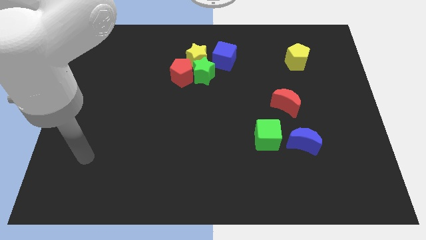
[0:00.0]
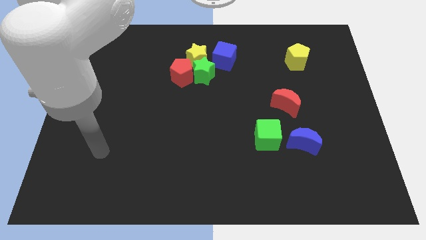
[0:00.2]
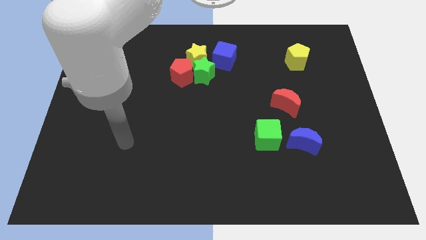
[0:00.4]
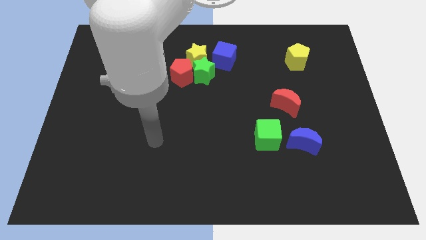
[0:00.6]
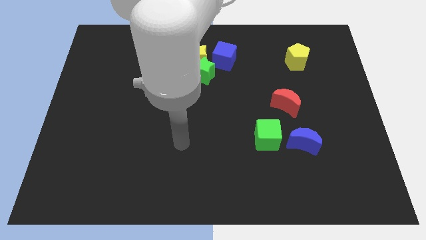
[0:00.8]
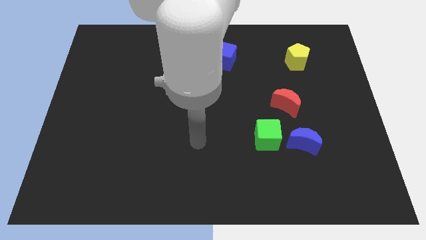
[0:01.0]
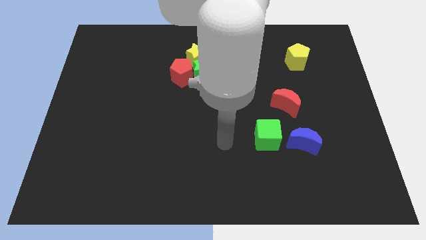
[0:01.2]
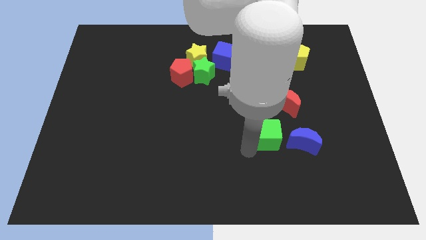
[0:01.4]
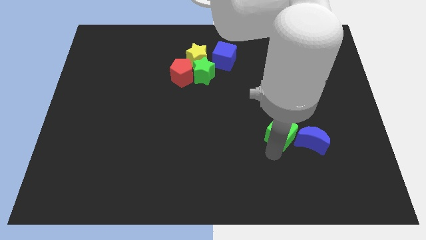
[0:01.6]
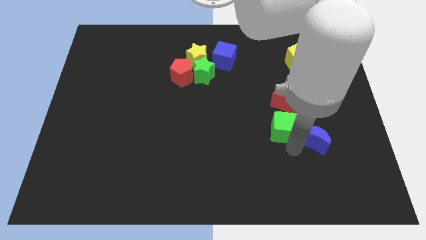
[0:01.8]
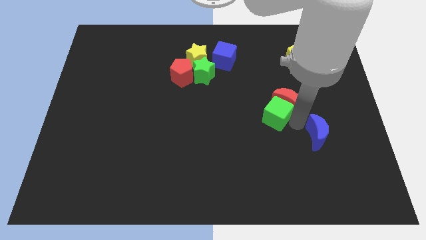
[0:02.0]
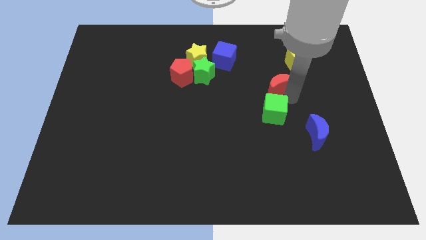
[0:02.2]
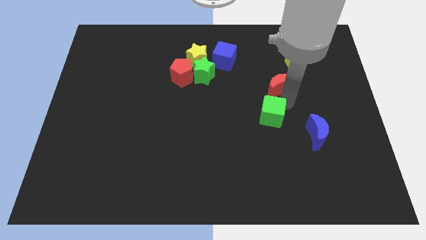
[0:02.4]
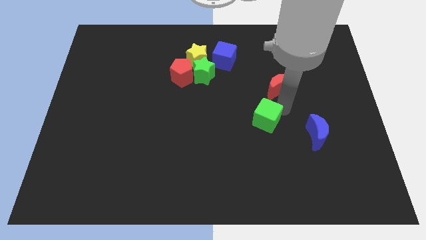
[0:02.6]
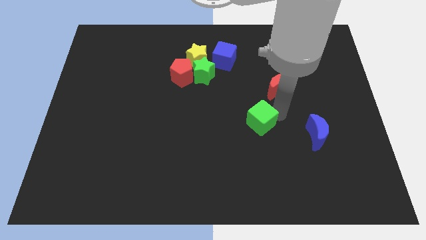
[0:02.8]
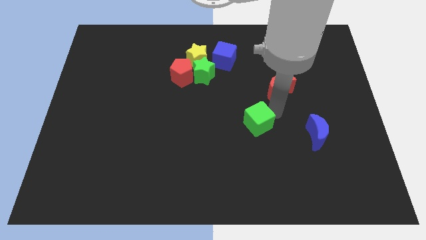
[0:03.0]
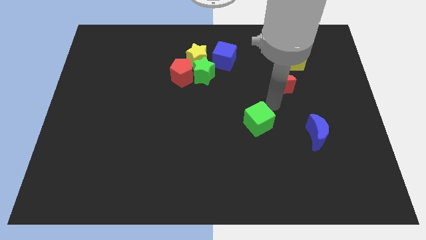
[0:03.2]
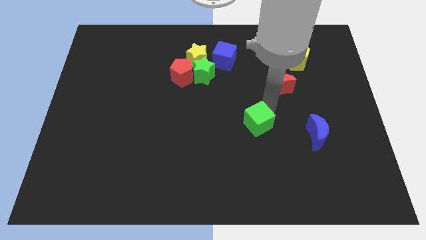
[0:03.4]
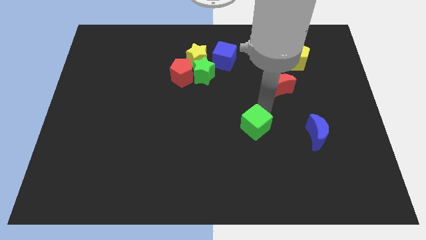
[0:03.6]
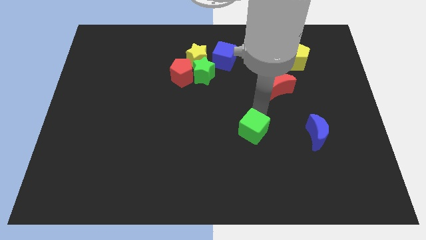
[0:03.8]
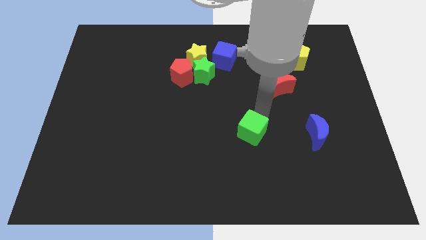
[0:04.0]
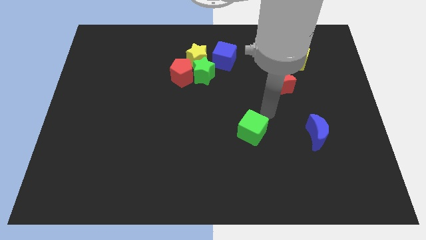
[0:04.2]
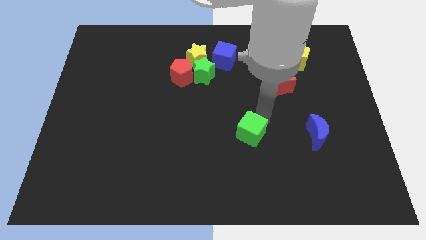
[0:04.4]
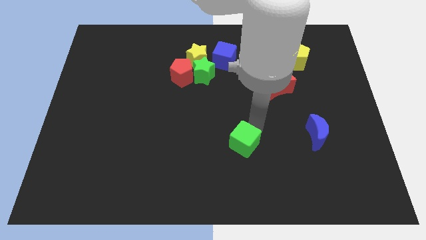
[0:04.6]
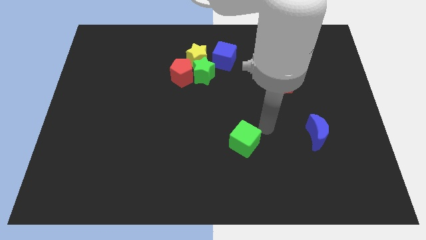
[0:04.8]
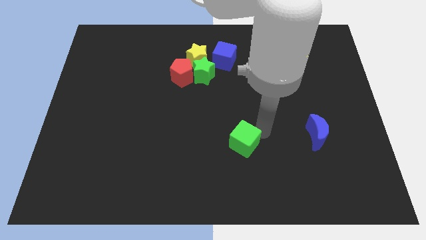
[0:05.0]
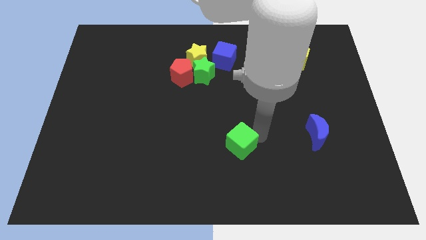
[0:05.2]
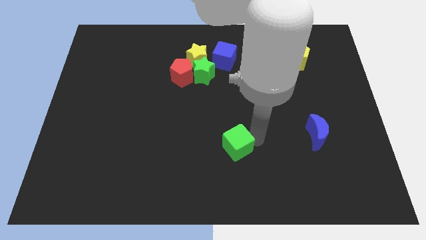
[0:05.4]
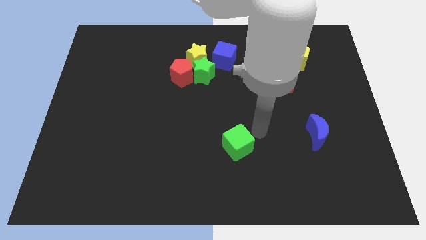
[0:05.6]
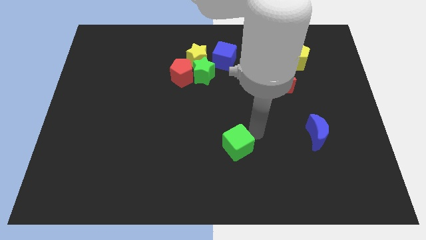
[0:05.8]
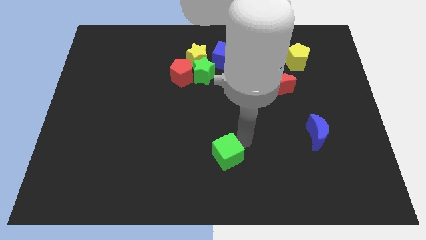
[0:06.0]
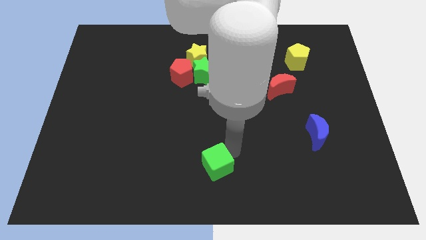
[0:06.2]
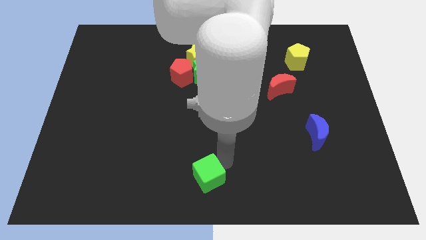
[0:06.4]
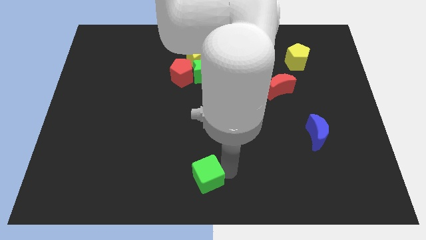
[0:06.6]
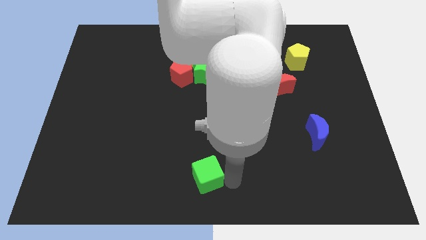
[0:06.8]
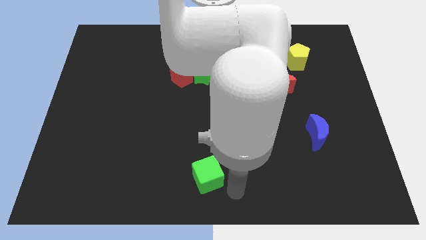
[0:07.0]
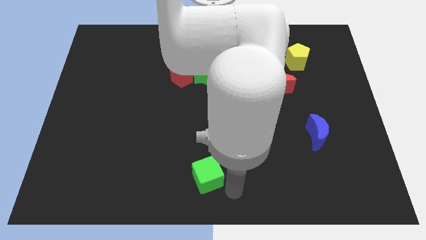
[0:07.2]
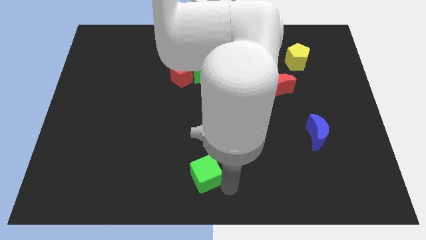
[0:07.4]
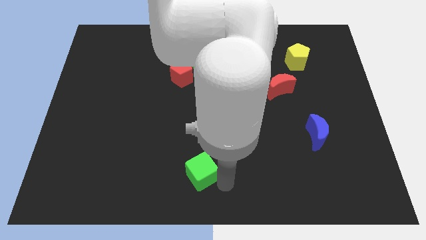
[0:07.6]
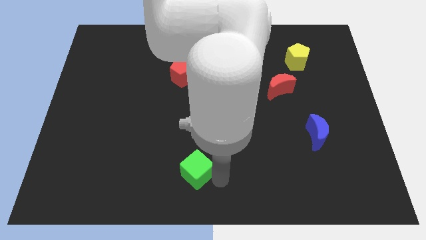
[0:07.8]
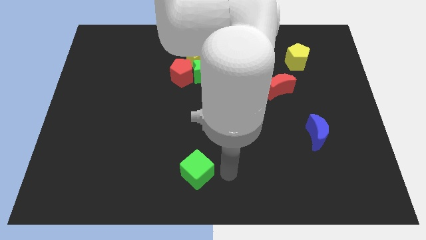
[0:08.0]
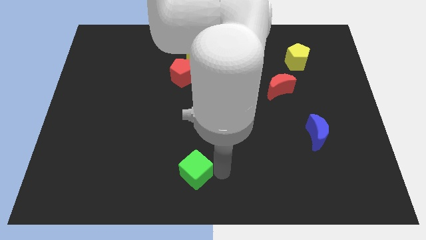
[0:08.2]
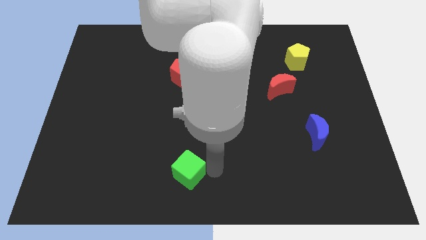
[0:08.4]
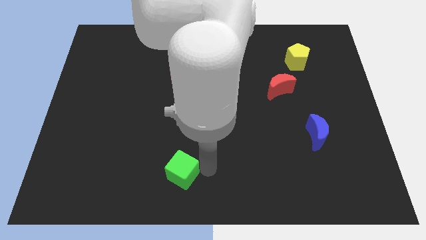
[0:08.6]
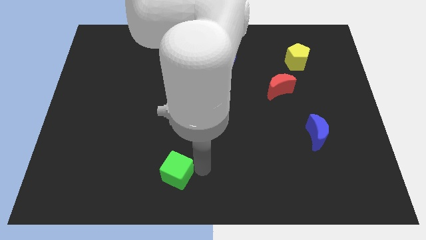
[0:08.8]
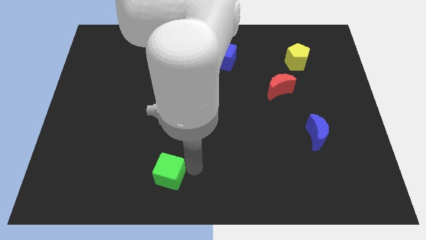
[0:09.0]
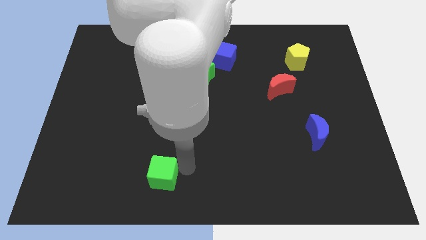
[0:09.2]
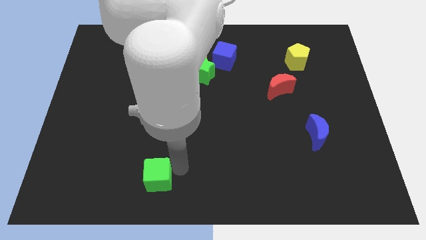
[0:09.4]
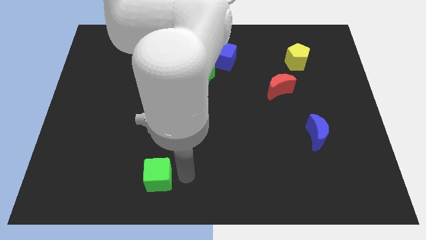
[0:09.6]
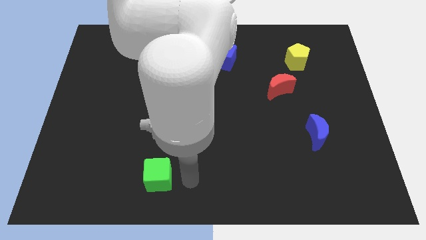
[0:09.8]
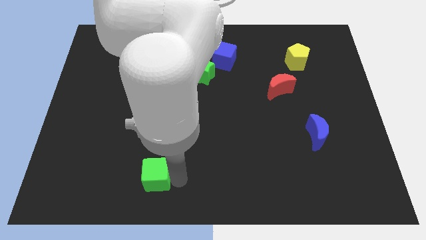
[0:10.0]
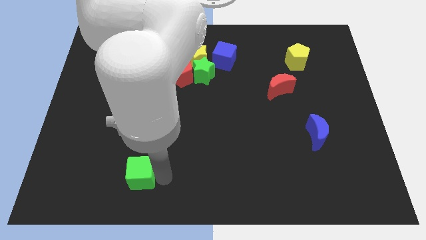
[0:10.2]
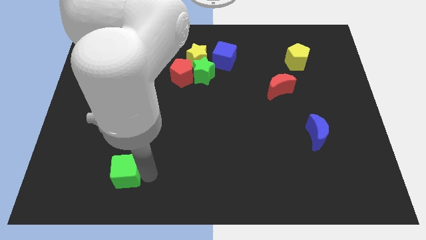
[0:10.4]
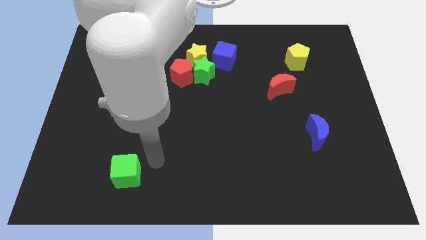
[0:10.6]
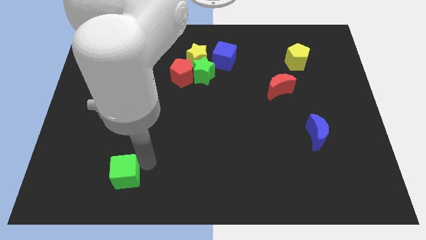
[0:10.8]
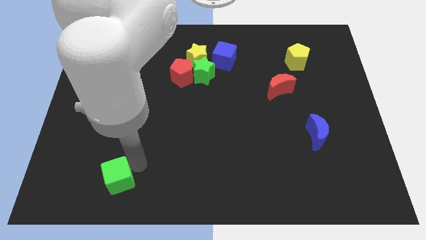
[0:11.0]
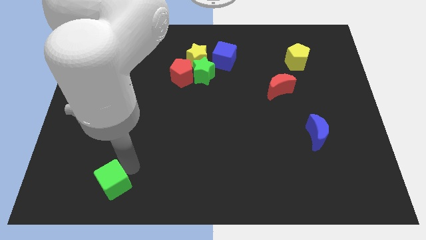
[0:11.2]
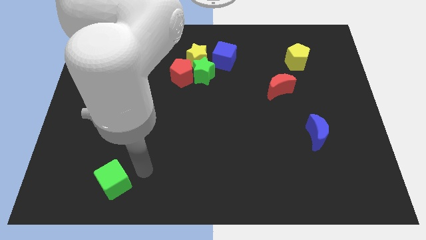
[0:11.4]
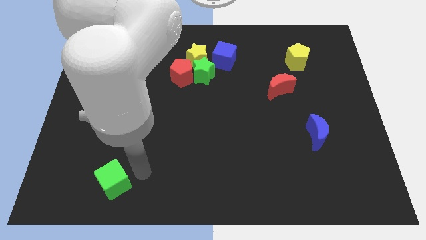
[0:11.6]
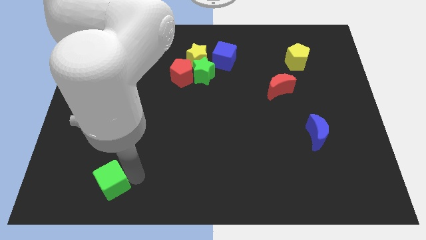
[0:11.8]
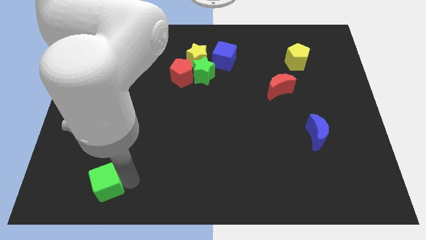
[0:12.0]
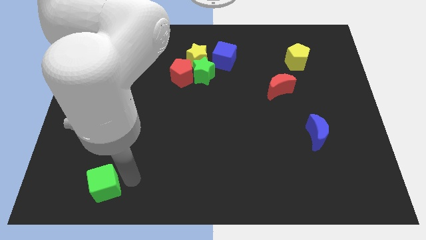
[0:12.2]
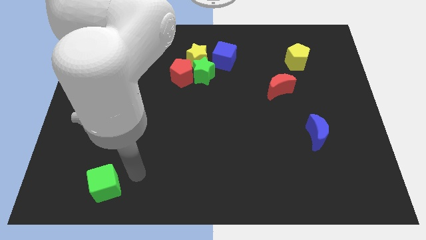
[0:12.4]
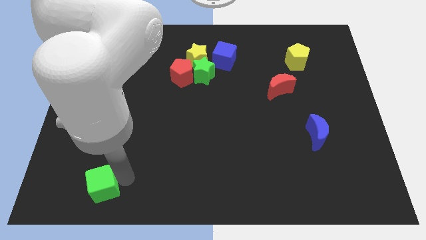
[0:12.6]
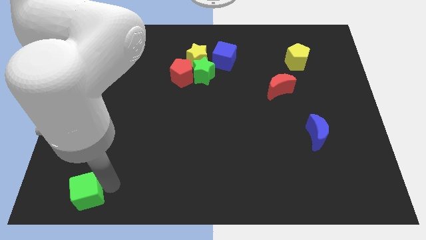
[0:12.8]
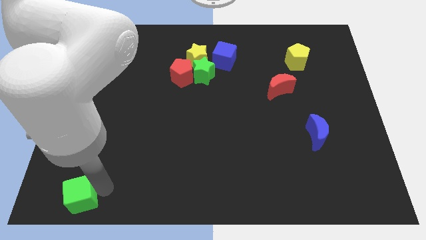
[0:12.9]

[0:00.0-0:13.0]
push the green cube to the lower left corner
